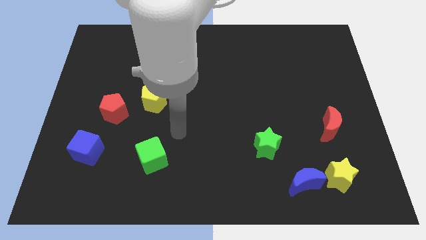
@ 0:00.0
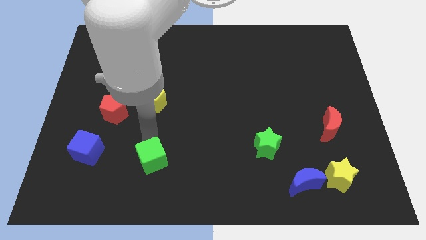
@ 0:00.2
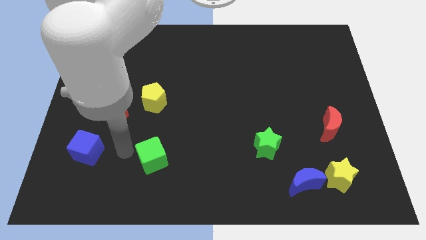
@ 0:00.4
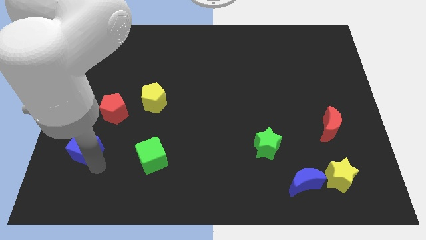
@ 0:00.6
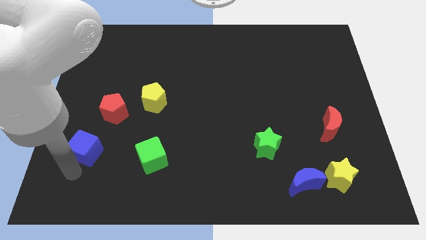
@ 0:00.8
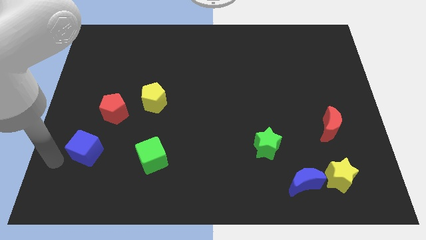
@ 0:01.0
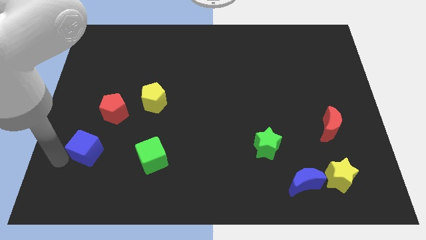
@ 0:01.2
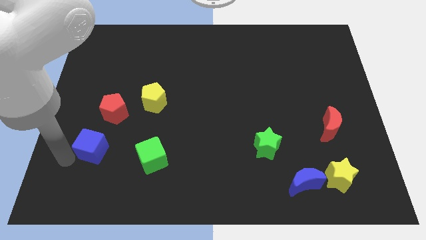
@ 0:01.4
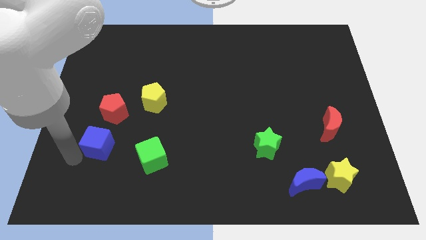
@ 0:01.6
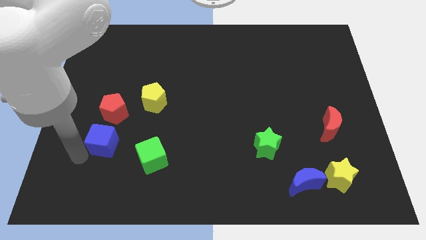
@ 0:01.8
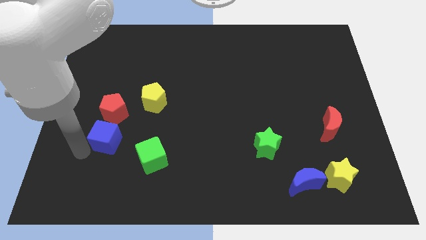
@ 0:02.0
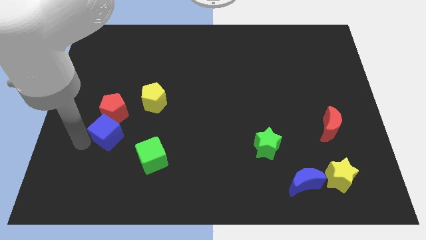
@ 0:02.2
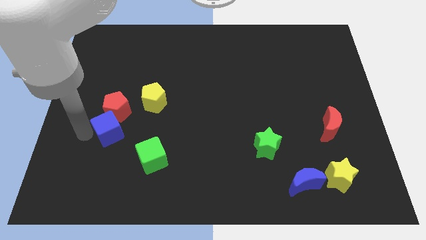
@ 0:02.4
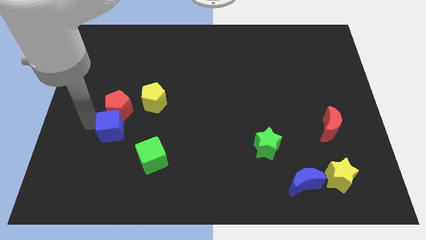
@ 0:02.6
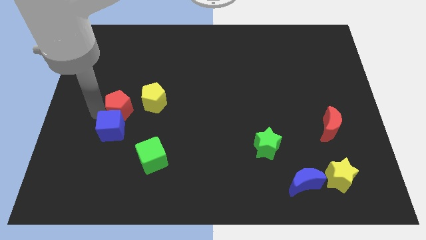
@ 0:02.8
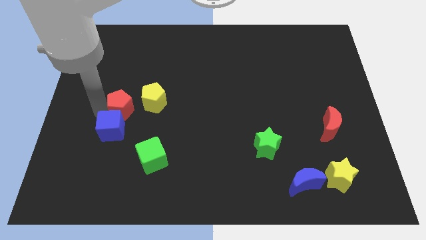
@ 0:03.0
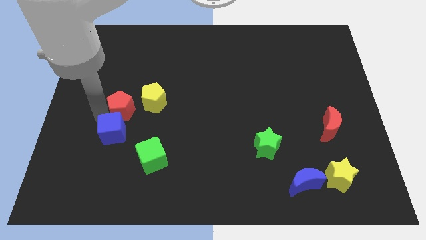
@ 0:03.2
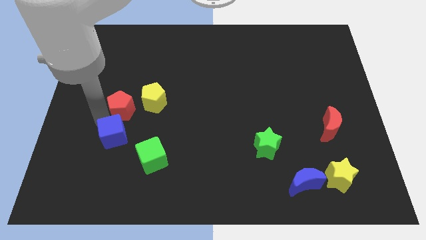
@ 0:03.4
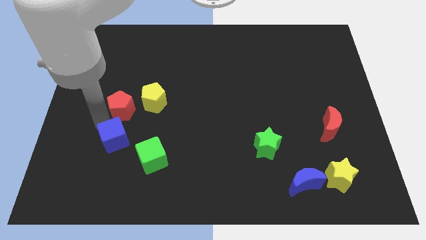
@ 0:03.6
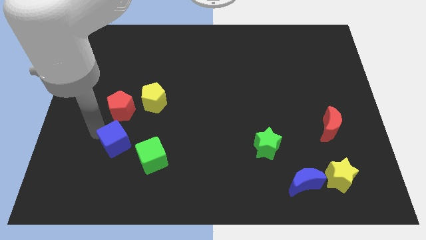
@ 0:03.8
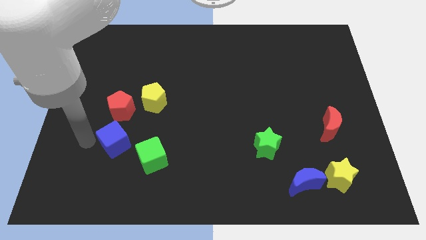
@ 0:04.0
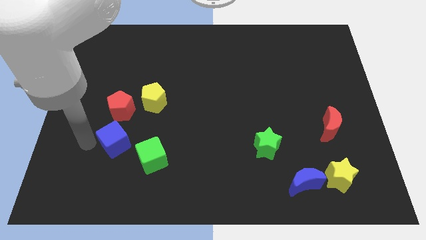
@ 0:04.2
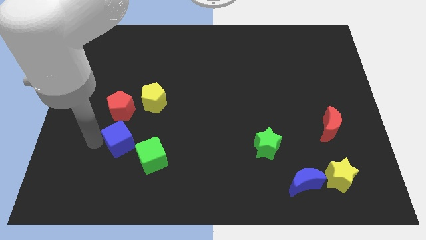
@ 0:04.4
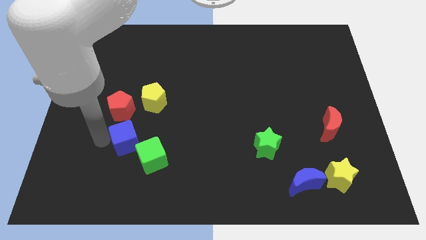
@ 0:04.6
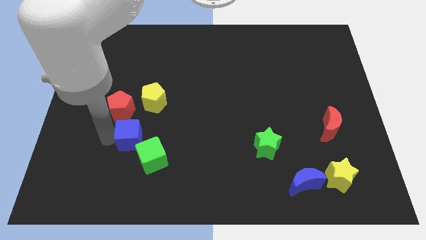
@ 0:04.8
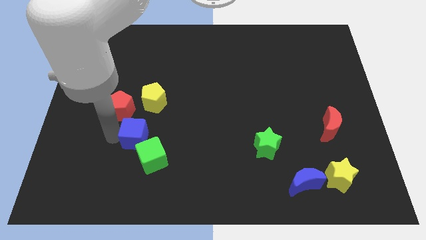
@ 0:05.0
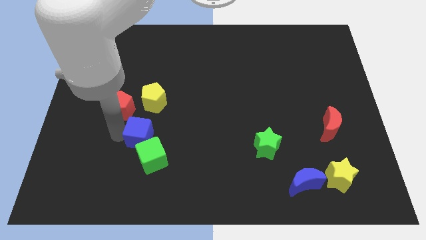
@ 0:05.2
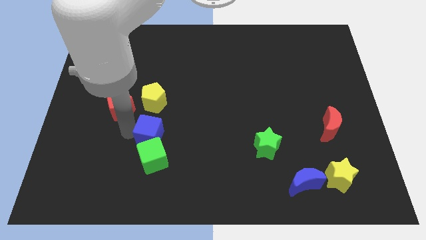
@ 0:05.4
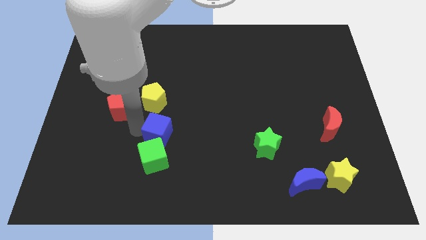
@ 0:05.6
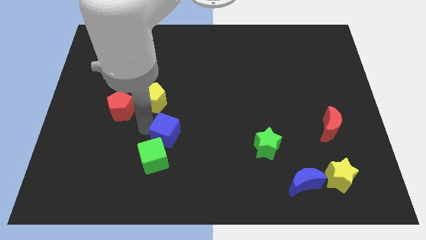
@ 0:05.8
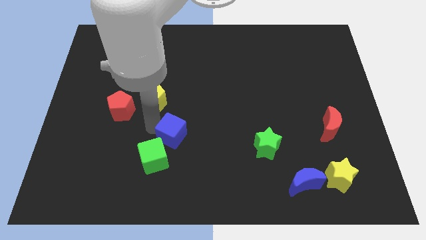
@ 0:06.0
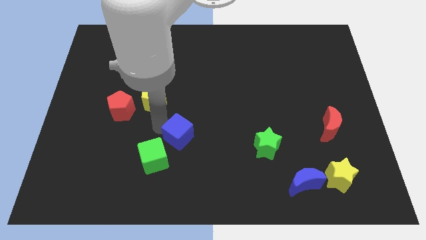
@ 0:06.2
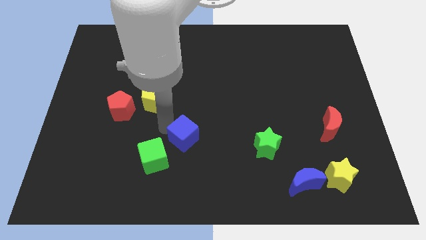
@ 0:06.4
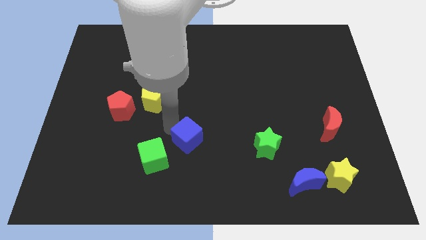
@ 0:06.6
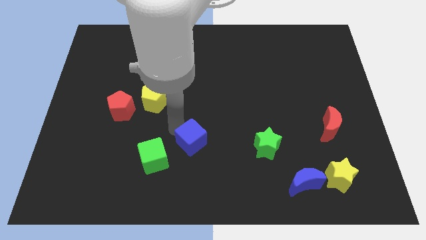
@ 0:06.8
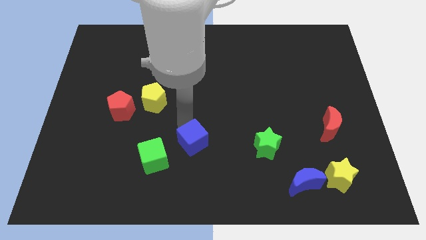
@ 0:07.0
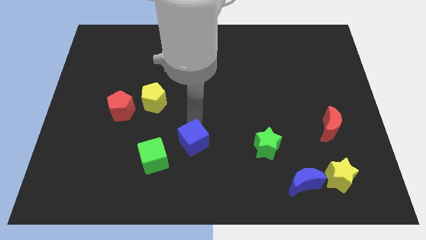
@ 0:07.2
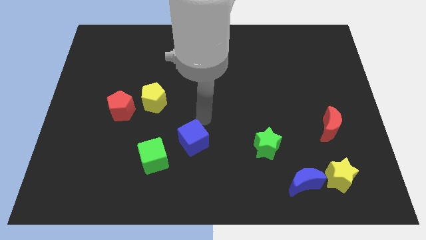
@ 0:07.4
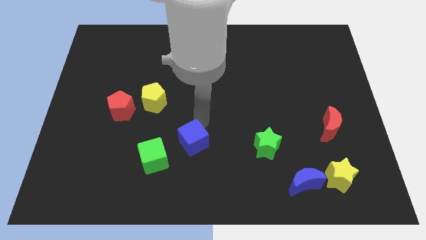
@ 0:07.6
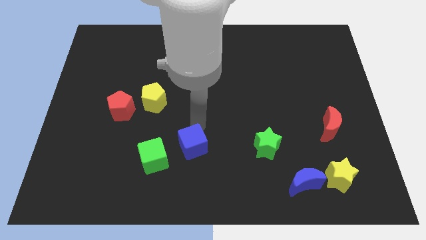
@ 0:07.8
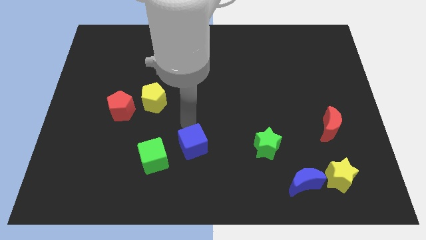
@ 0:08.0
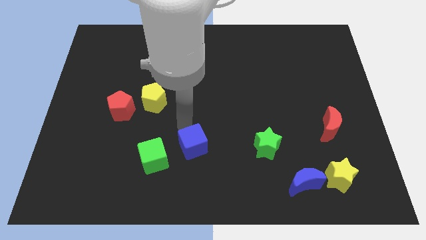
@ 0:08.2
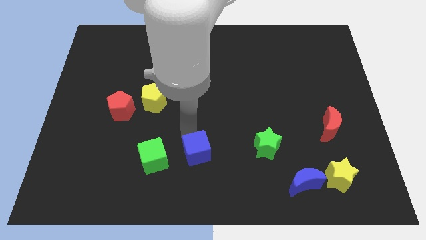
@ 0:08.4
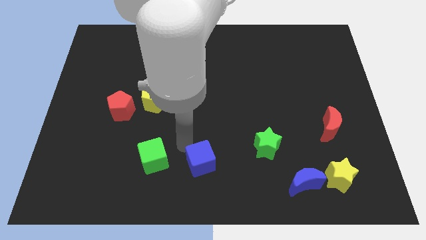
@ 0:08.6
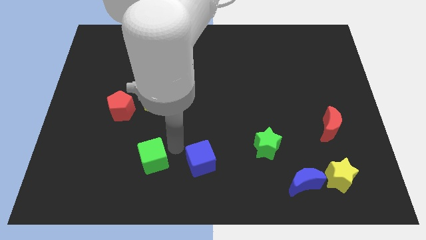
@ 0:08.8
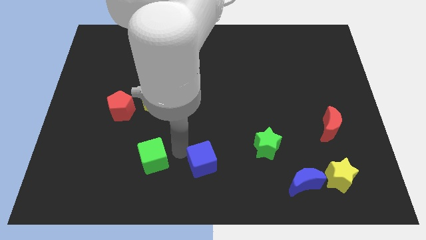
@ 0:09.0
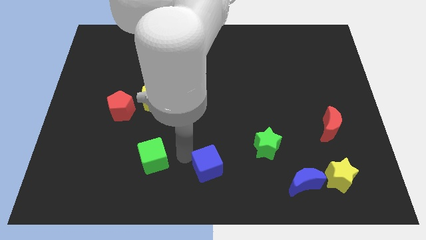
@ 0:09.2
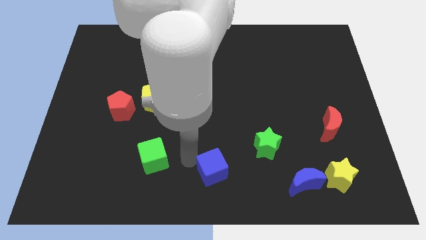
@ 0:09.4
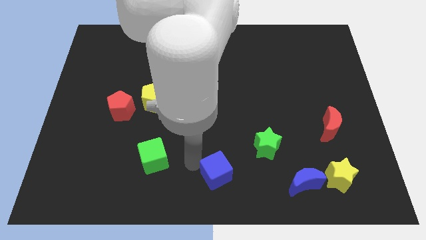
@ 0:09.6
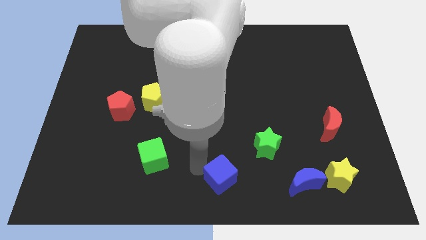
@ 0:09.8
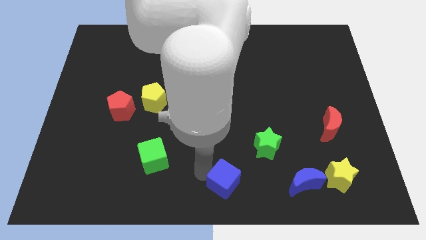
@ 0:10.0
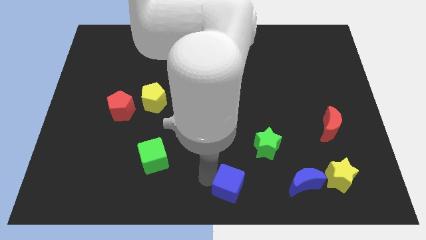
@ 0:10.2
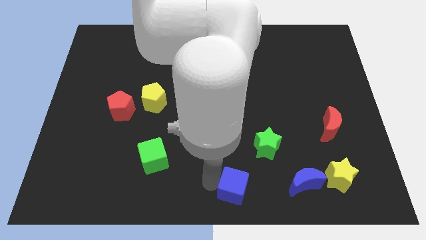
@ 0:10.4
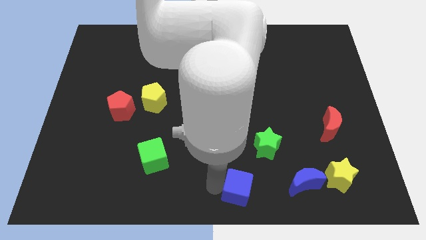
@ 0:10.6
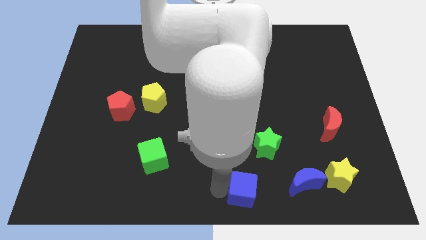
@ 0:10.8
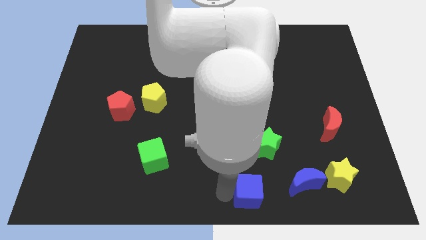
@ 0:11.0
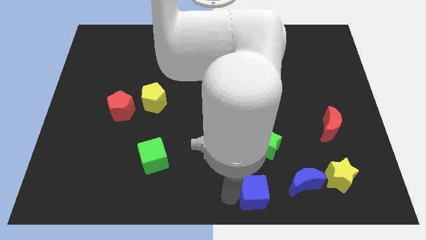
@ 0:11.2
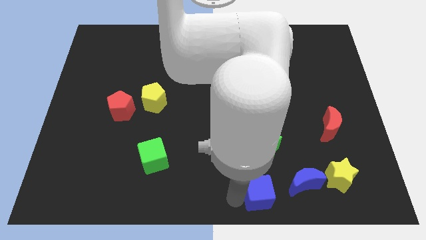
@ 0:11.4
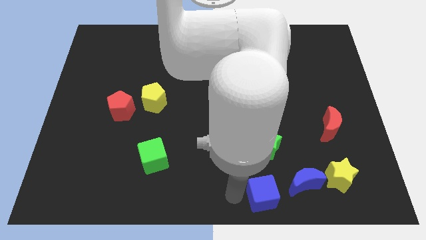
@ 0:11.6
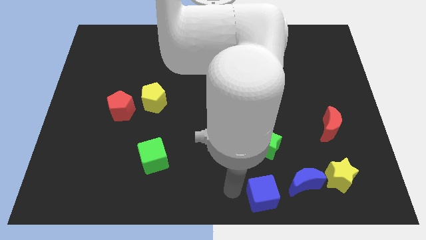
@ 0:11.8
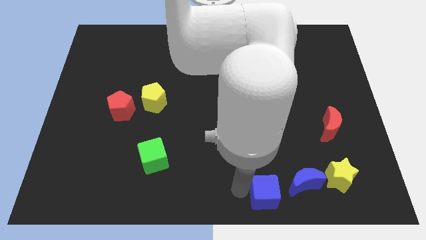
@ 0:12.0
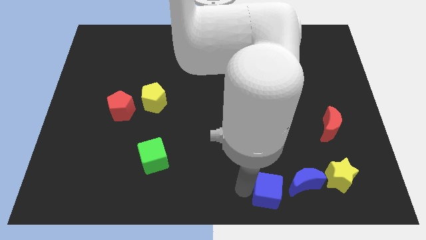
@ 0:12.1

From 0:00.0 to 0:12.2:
move the blue cube just left of the yellow star

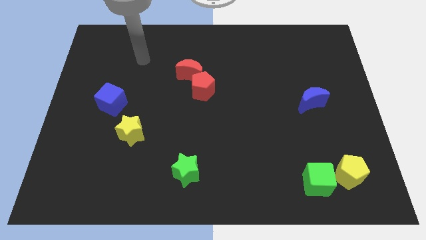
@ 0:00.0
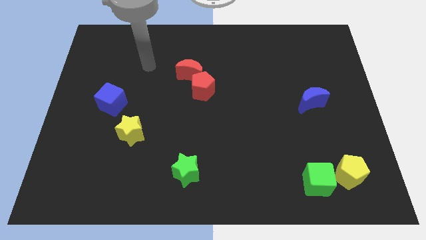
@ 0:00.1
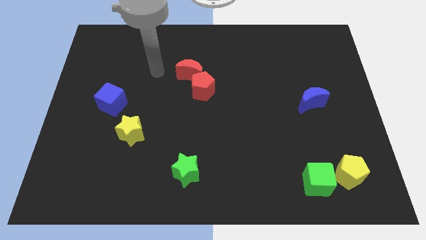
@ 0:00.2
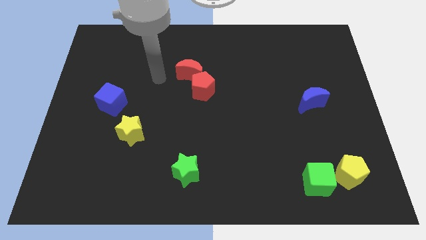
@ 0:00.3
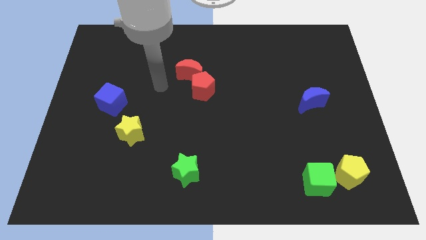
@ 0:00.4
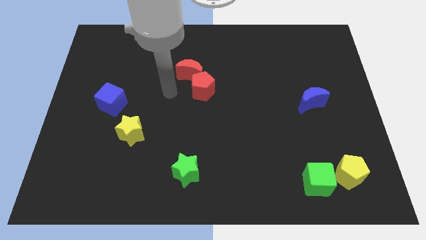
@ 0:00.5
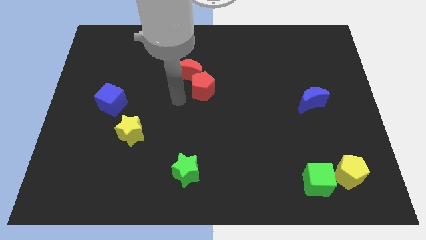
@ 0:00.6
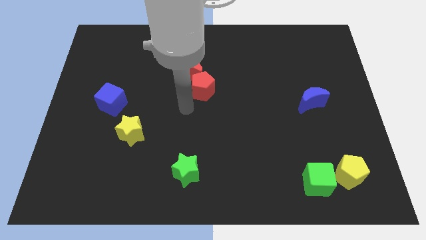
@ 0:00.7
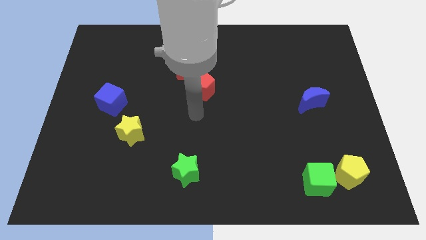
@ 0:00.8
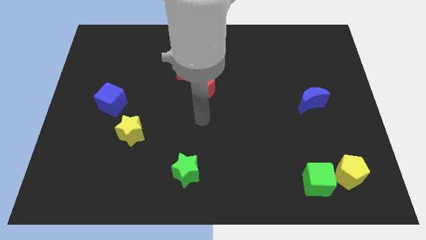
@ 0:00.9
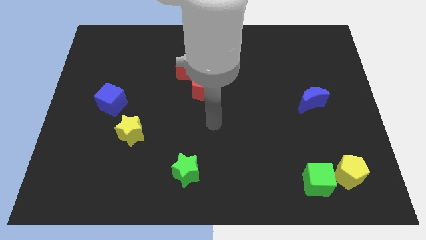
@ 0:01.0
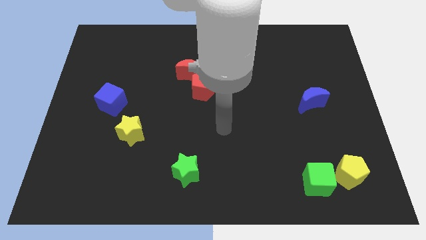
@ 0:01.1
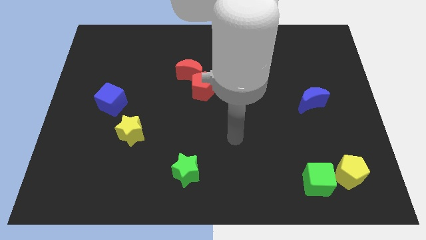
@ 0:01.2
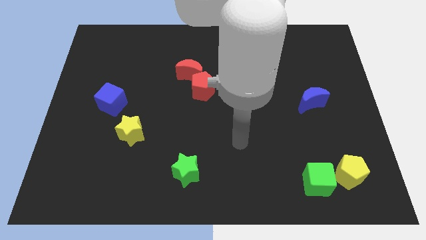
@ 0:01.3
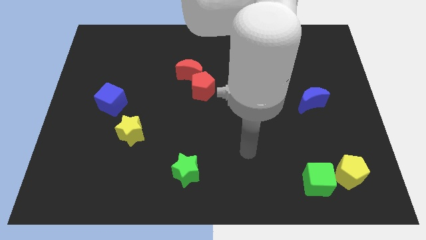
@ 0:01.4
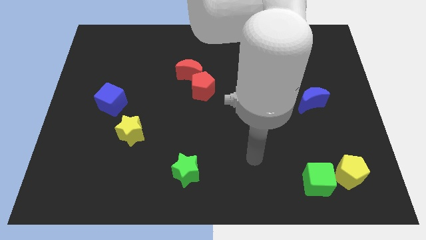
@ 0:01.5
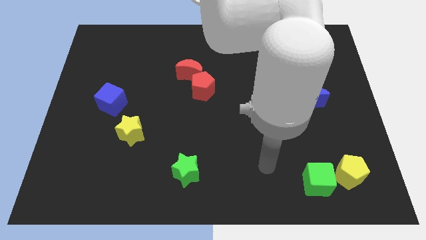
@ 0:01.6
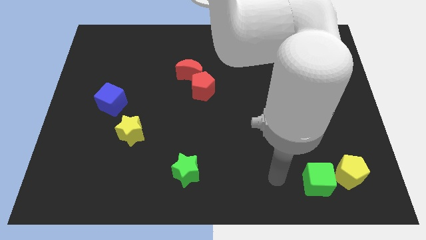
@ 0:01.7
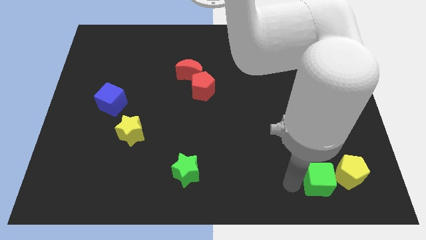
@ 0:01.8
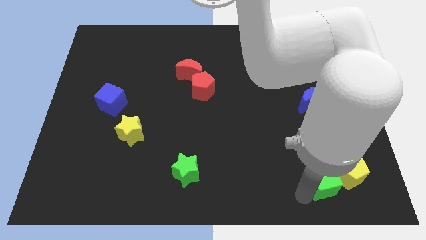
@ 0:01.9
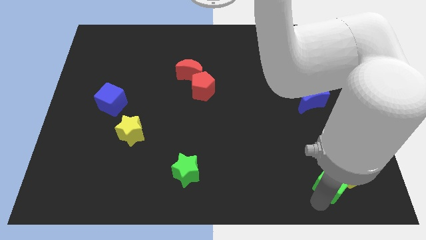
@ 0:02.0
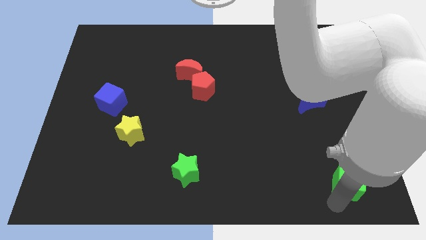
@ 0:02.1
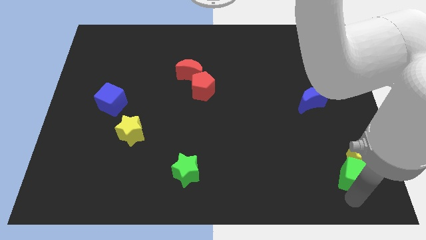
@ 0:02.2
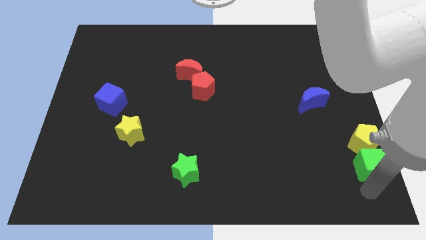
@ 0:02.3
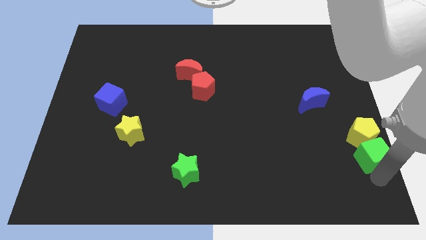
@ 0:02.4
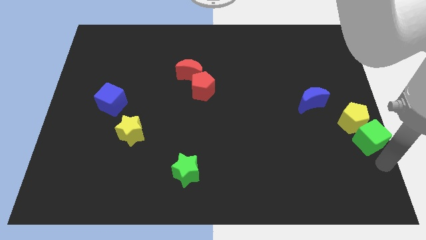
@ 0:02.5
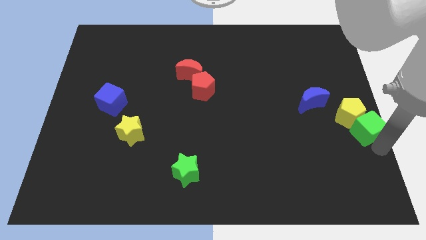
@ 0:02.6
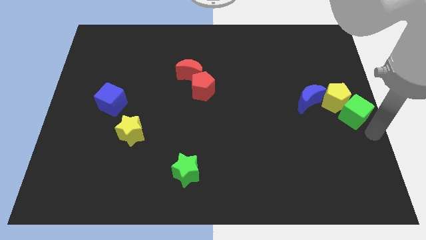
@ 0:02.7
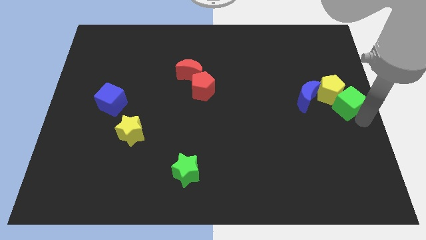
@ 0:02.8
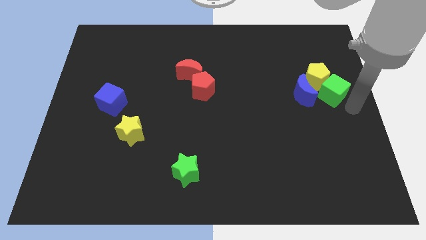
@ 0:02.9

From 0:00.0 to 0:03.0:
move the yellow pentagon to the top side of the blue moon
